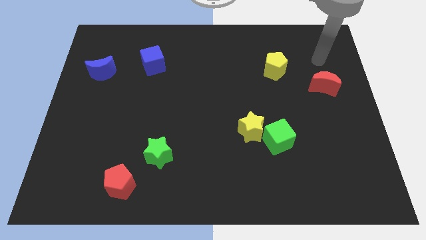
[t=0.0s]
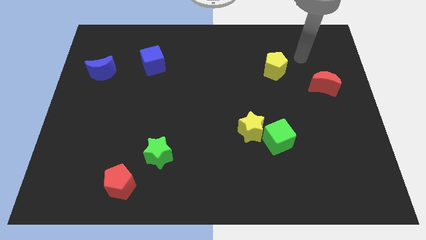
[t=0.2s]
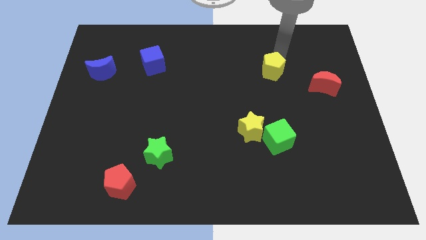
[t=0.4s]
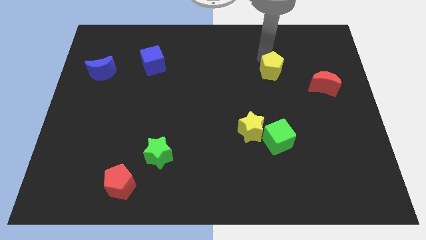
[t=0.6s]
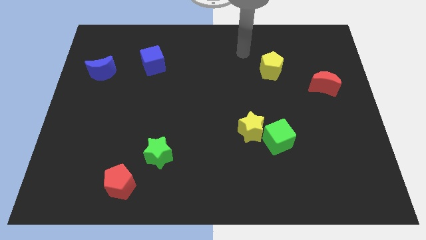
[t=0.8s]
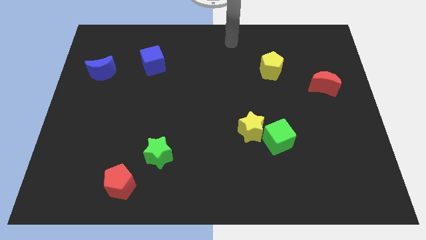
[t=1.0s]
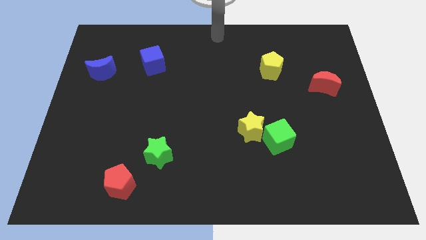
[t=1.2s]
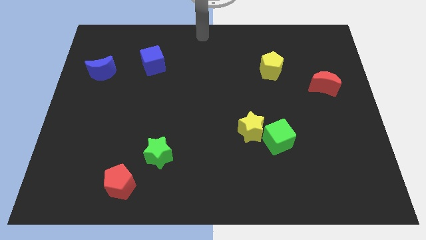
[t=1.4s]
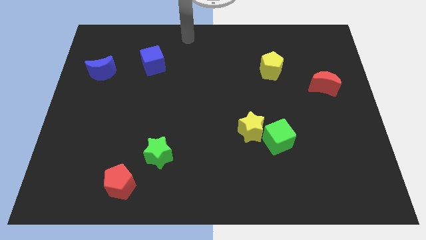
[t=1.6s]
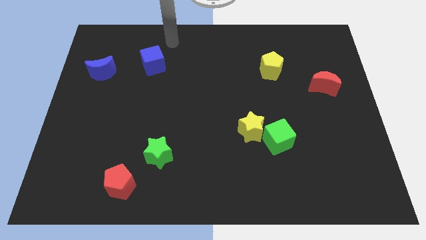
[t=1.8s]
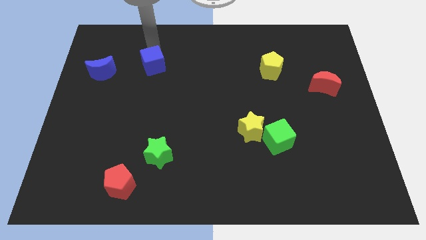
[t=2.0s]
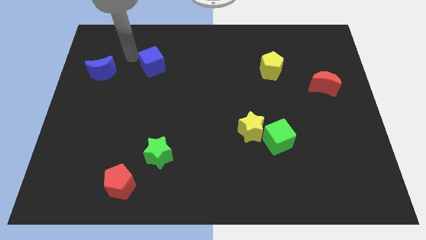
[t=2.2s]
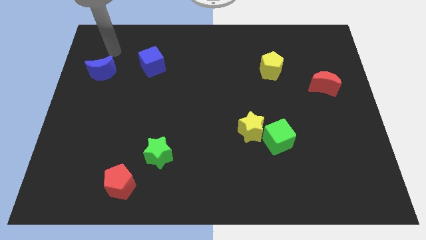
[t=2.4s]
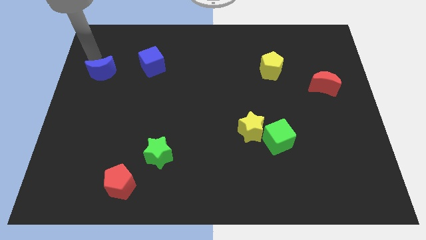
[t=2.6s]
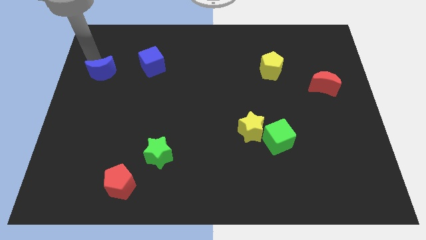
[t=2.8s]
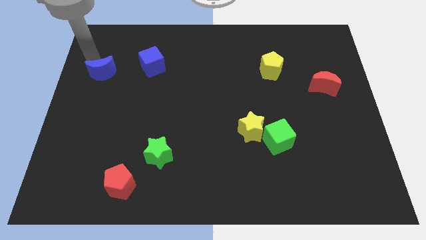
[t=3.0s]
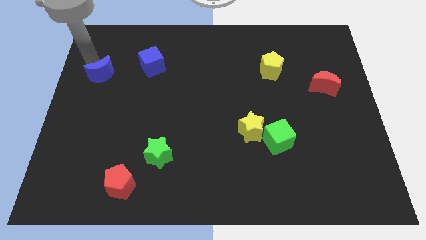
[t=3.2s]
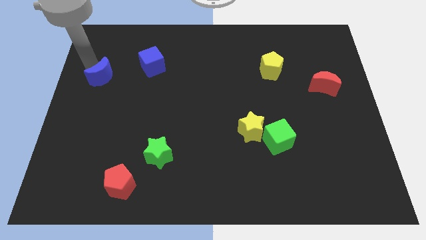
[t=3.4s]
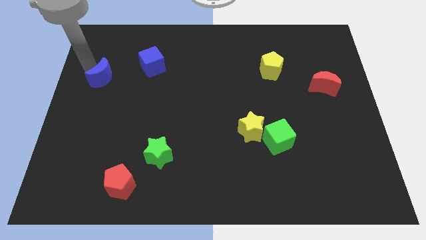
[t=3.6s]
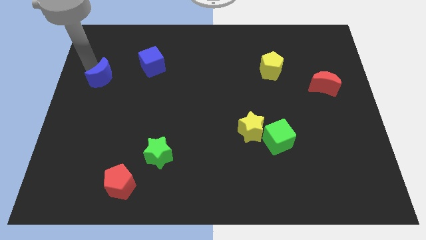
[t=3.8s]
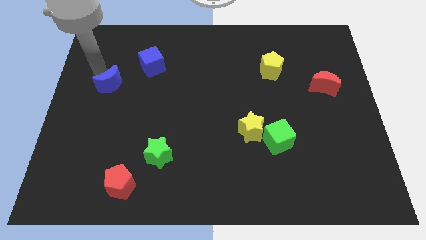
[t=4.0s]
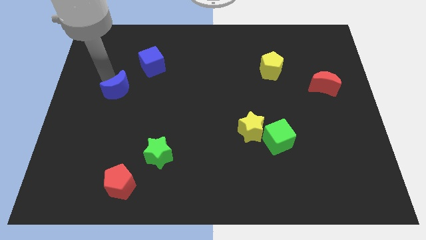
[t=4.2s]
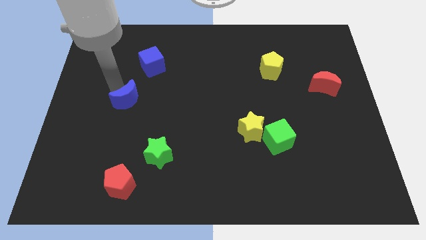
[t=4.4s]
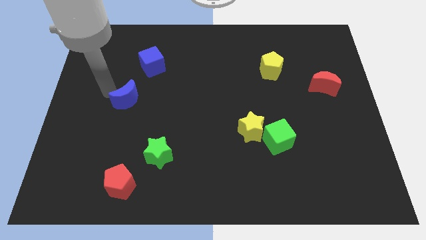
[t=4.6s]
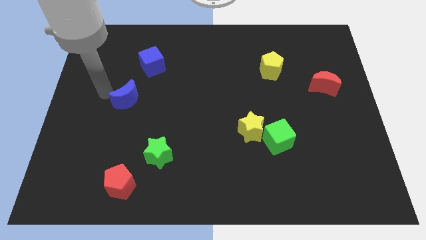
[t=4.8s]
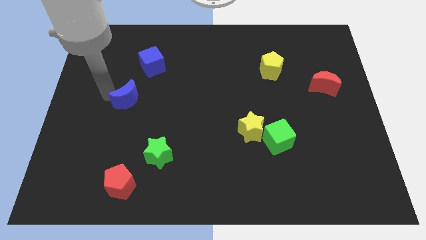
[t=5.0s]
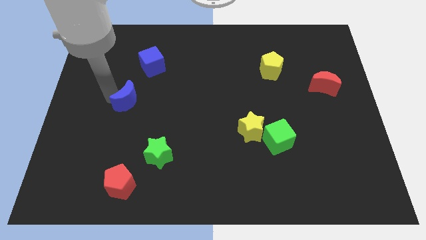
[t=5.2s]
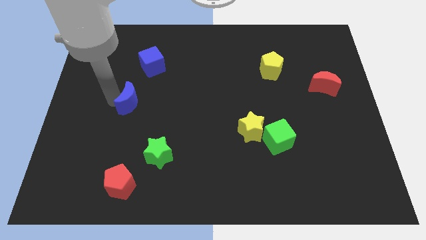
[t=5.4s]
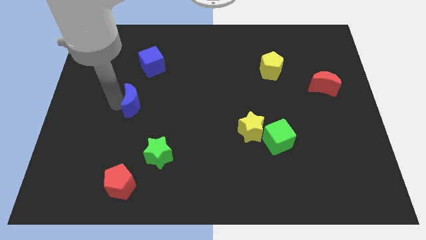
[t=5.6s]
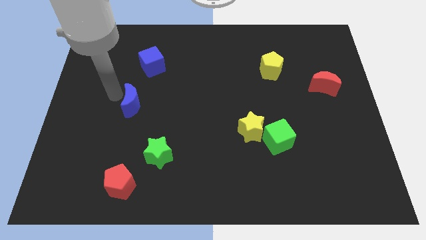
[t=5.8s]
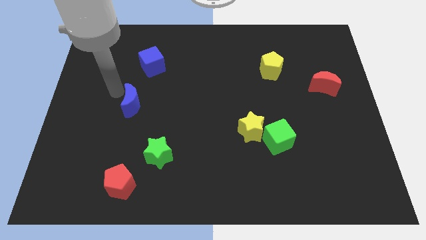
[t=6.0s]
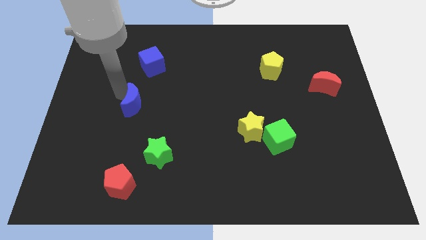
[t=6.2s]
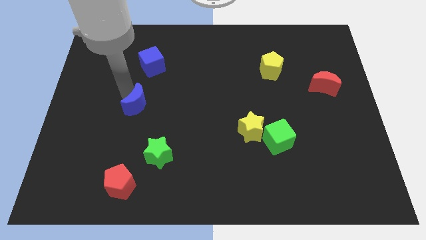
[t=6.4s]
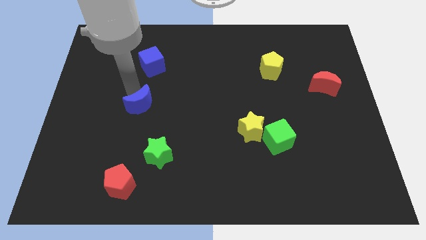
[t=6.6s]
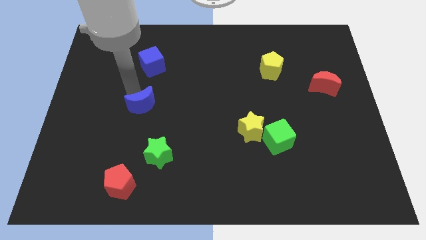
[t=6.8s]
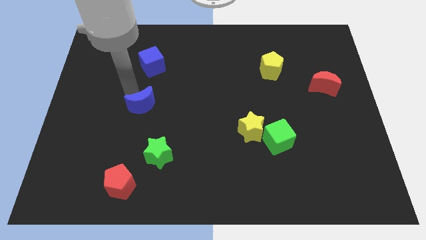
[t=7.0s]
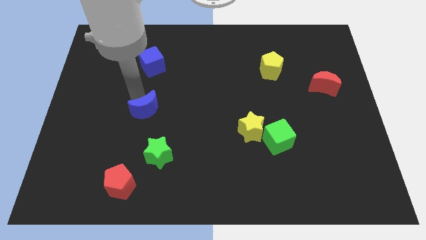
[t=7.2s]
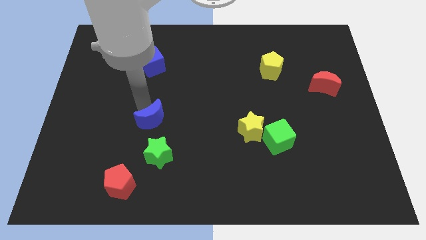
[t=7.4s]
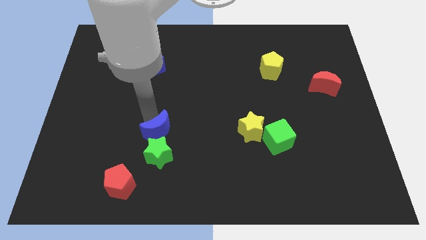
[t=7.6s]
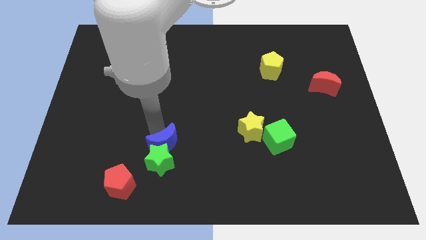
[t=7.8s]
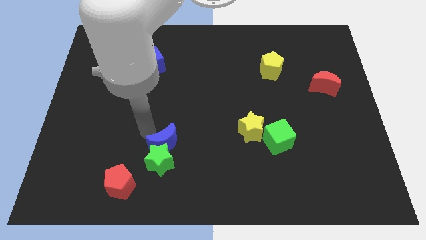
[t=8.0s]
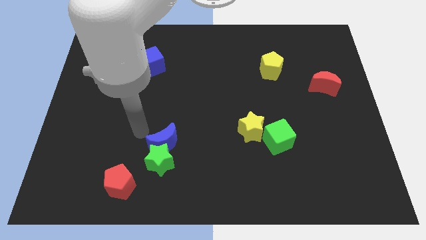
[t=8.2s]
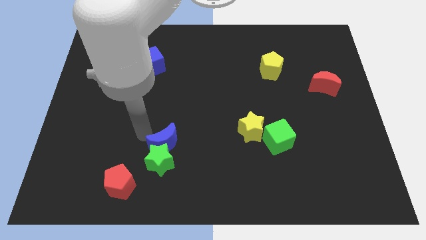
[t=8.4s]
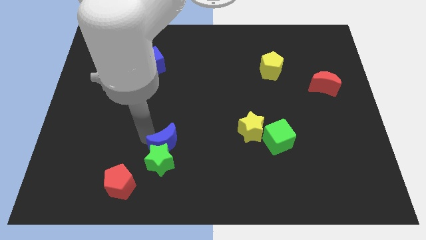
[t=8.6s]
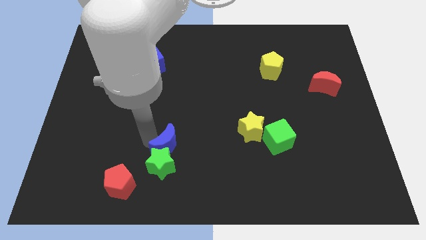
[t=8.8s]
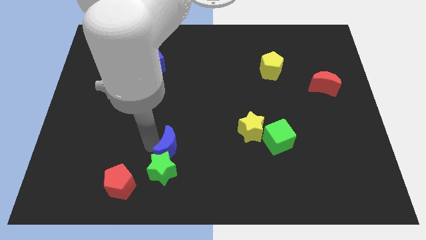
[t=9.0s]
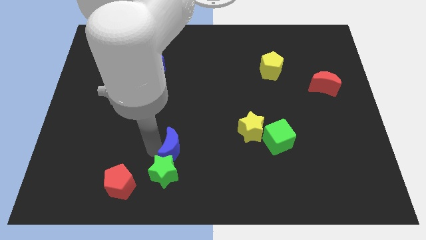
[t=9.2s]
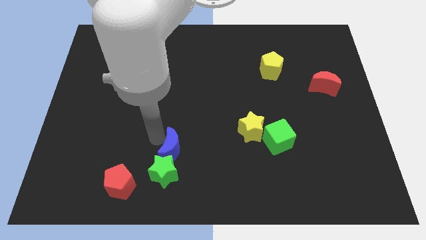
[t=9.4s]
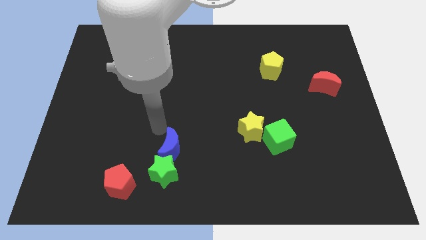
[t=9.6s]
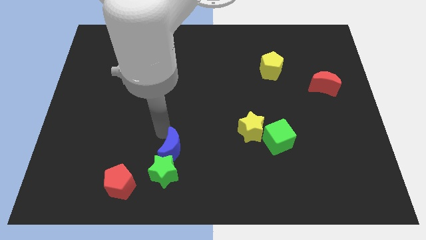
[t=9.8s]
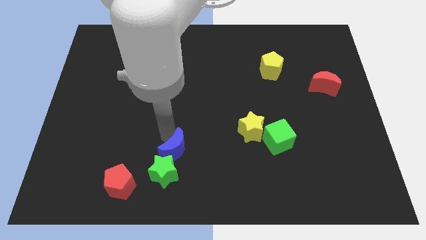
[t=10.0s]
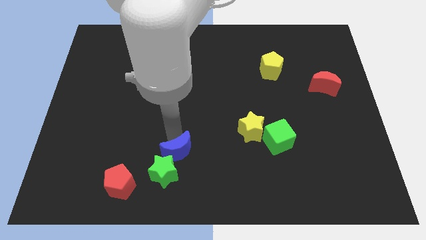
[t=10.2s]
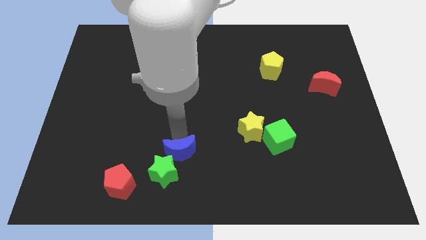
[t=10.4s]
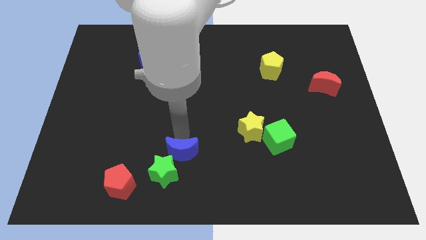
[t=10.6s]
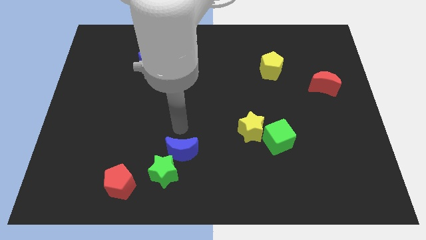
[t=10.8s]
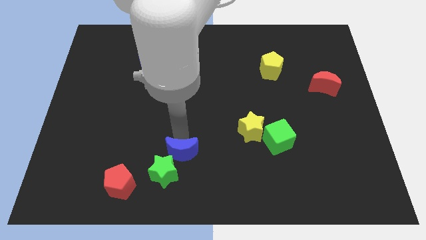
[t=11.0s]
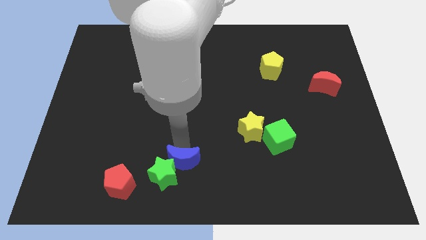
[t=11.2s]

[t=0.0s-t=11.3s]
move the blue moon to the bottom side

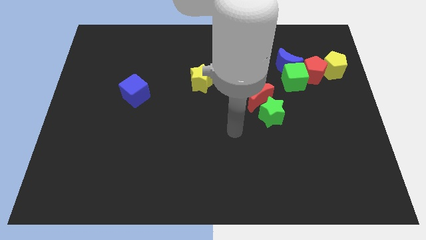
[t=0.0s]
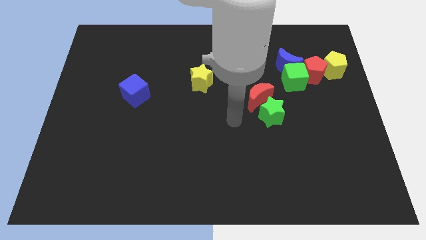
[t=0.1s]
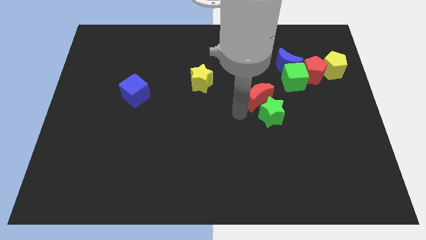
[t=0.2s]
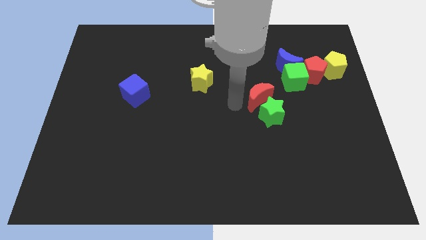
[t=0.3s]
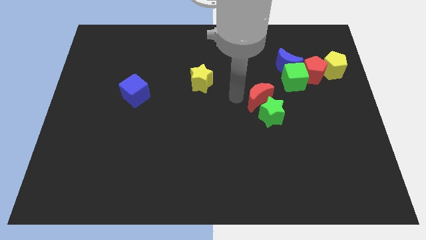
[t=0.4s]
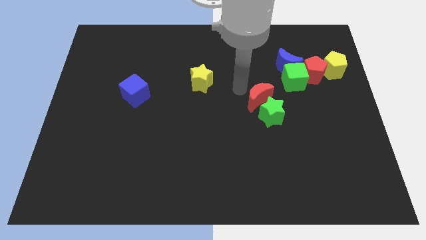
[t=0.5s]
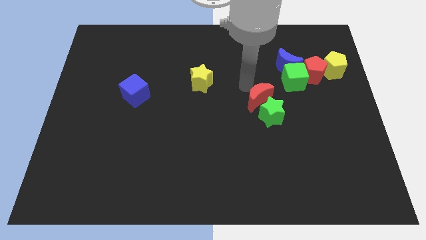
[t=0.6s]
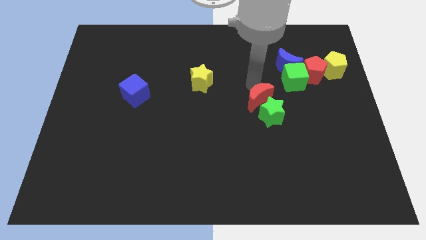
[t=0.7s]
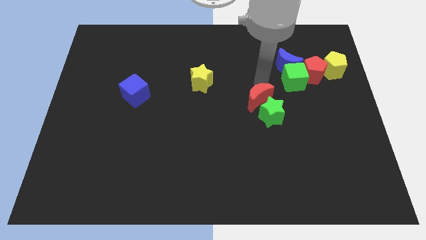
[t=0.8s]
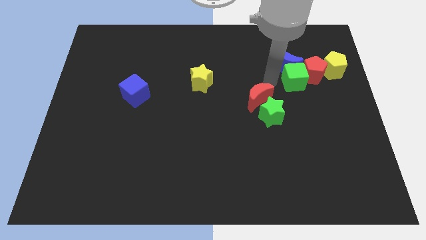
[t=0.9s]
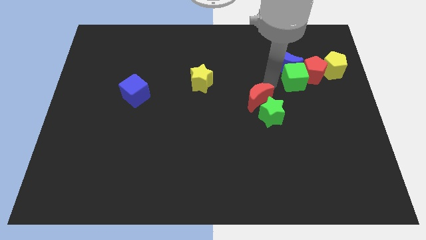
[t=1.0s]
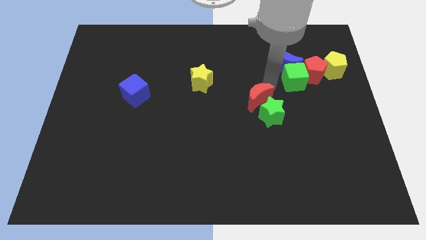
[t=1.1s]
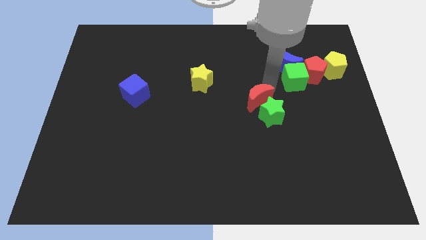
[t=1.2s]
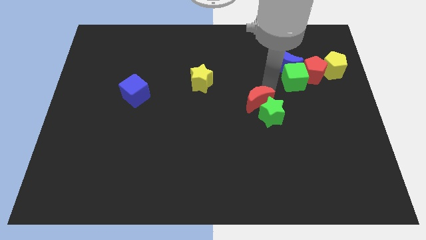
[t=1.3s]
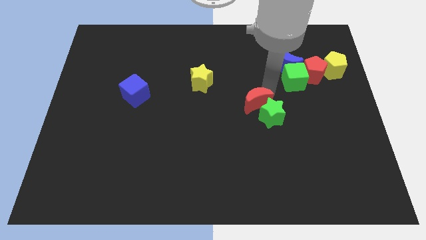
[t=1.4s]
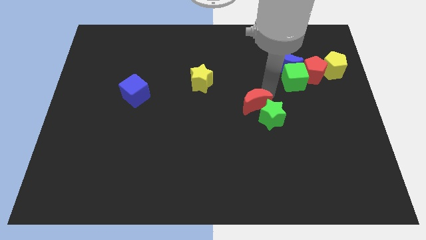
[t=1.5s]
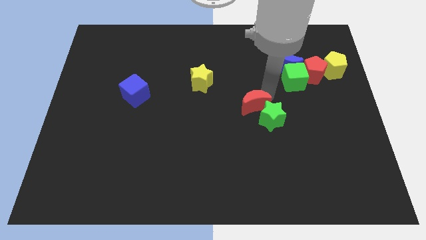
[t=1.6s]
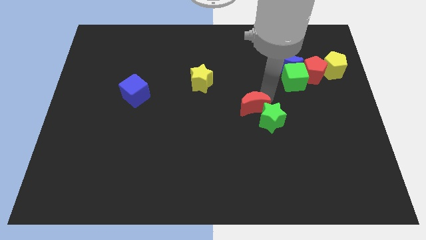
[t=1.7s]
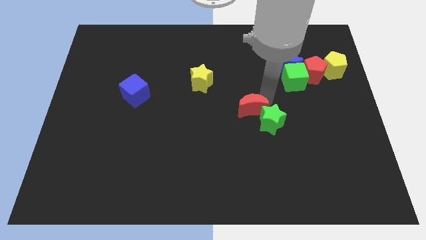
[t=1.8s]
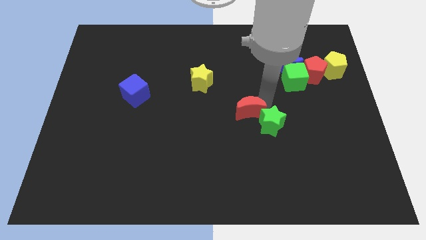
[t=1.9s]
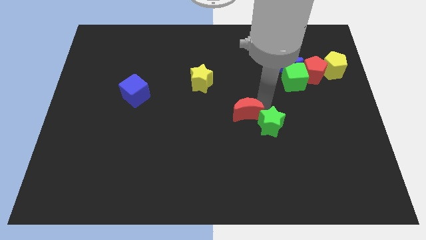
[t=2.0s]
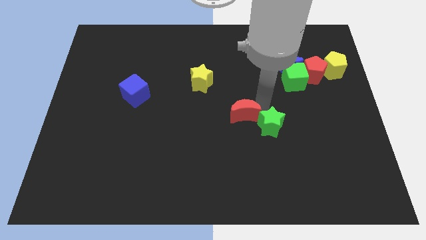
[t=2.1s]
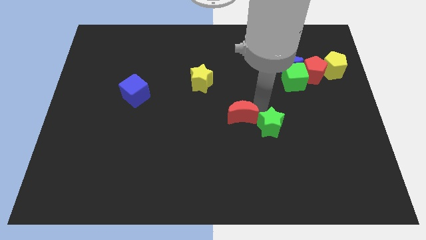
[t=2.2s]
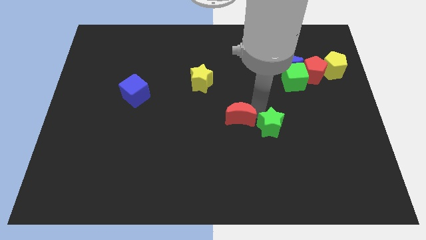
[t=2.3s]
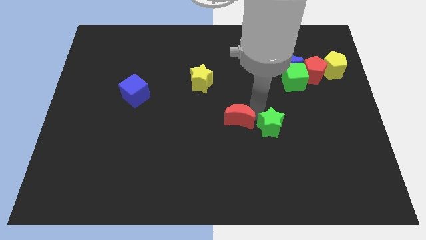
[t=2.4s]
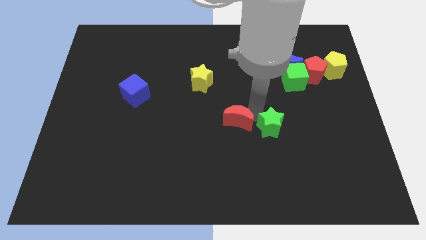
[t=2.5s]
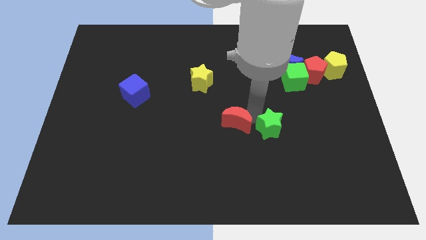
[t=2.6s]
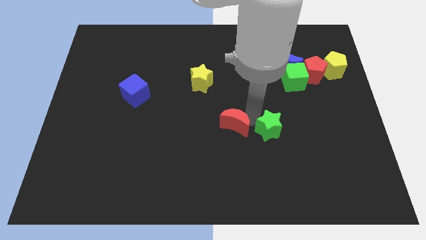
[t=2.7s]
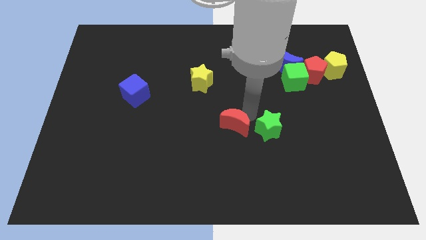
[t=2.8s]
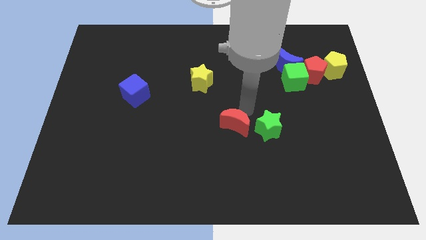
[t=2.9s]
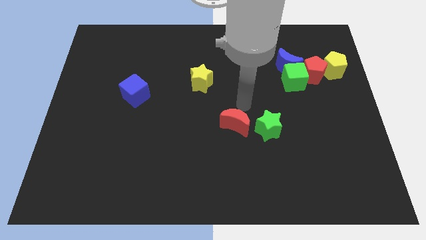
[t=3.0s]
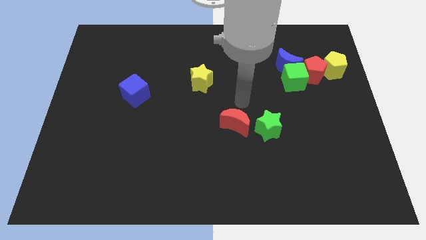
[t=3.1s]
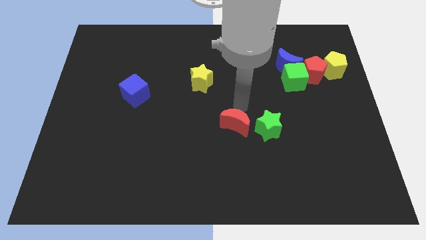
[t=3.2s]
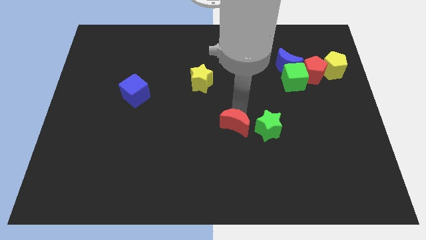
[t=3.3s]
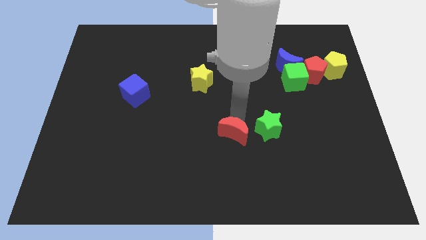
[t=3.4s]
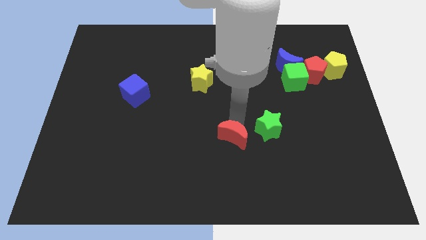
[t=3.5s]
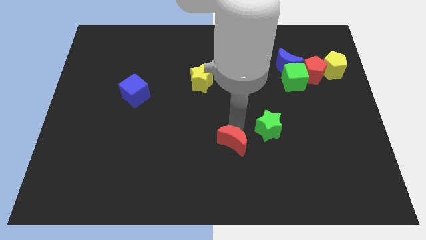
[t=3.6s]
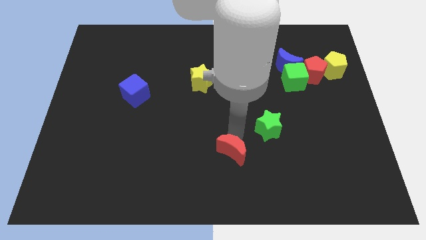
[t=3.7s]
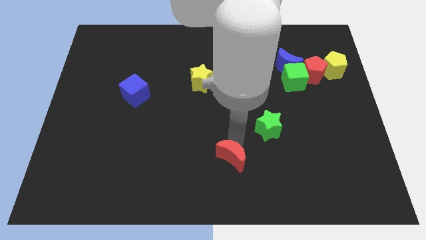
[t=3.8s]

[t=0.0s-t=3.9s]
slide the red moon to the bottom side
